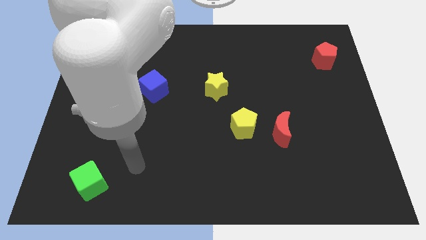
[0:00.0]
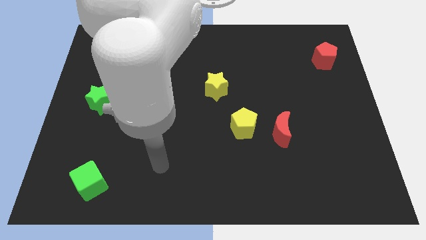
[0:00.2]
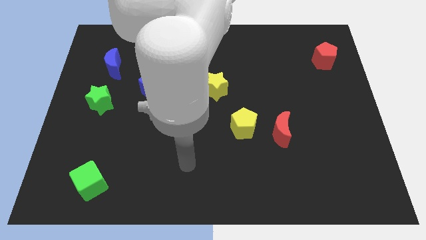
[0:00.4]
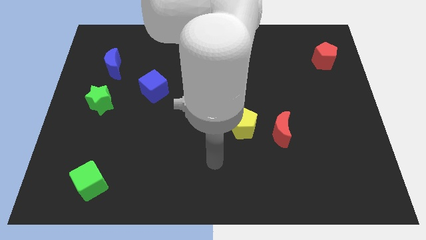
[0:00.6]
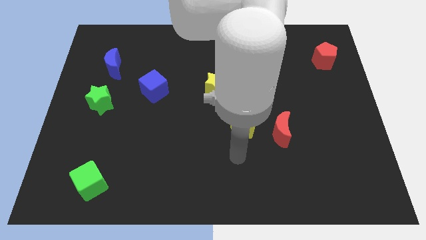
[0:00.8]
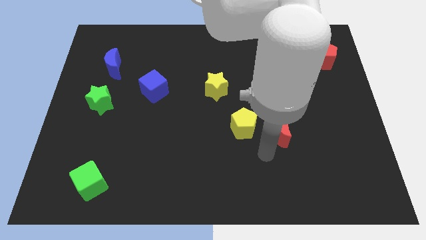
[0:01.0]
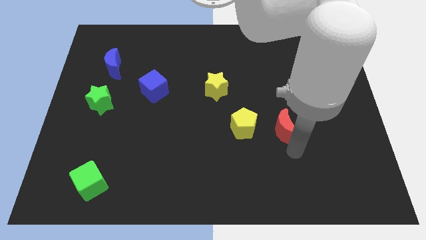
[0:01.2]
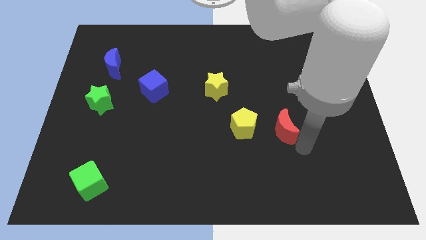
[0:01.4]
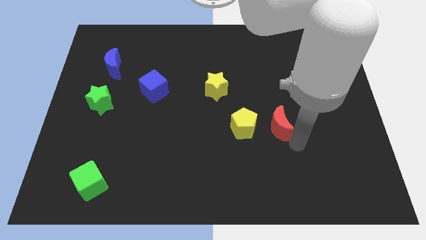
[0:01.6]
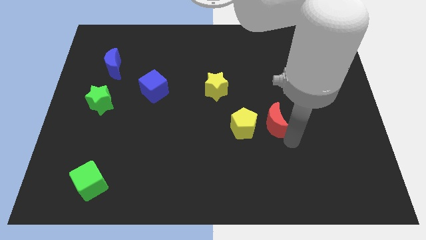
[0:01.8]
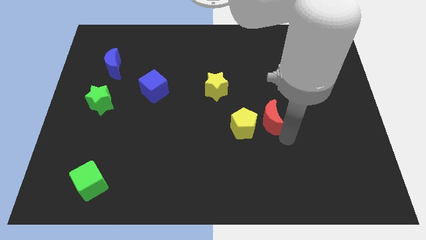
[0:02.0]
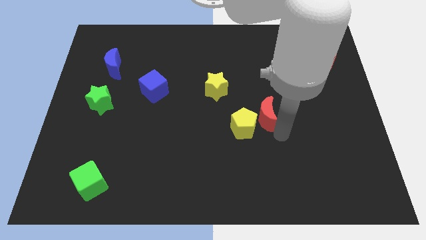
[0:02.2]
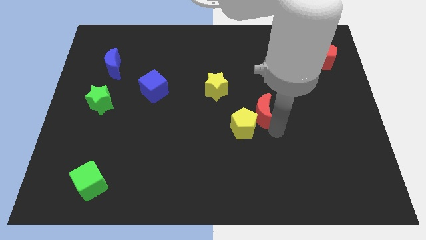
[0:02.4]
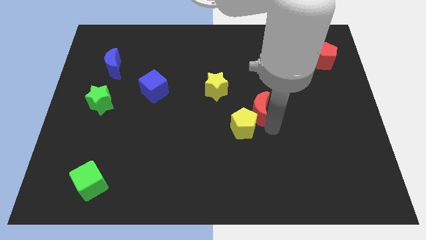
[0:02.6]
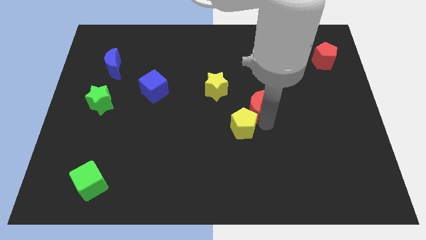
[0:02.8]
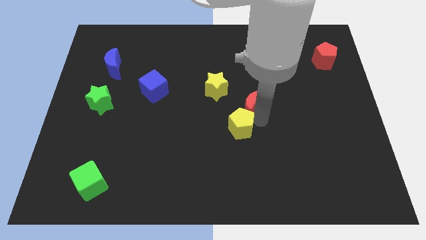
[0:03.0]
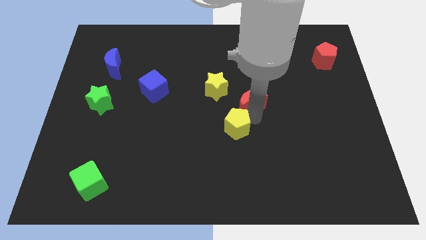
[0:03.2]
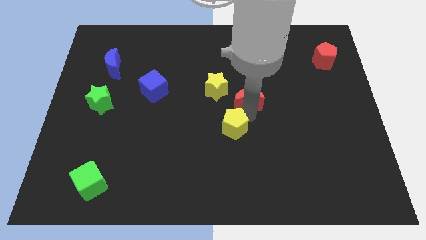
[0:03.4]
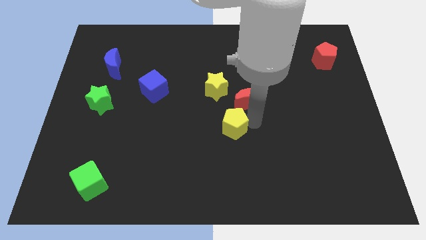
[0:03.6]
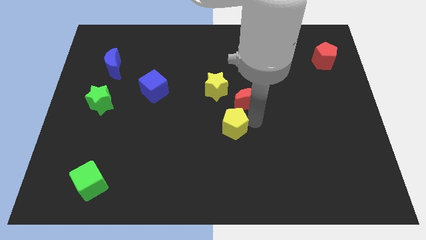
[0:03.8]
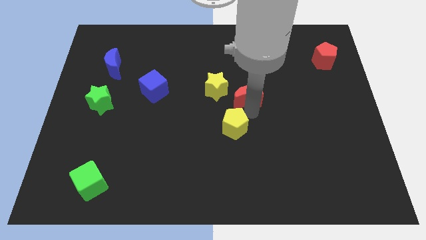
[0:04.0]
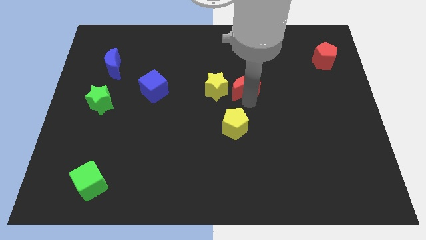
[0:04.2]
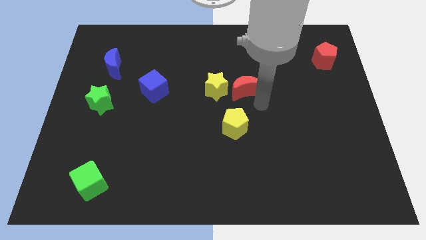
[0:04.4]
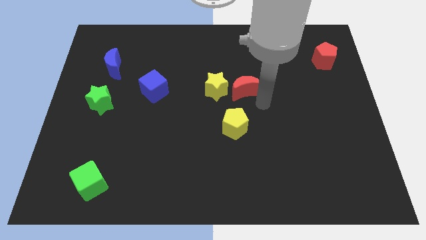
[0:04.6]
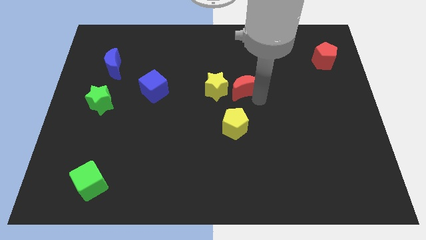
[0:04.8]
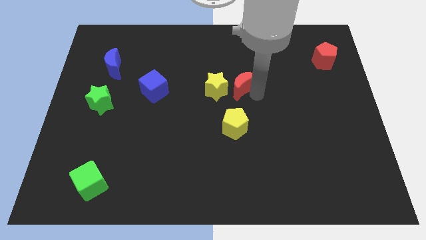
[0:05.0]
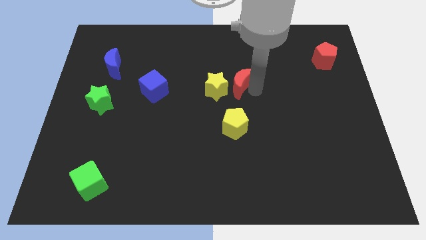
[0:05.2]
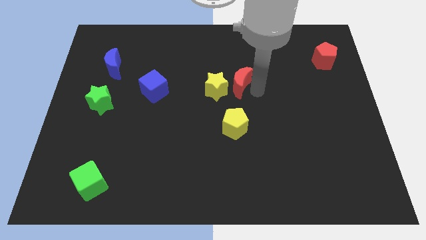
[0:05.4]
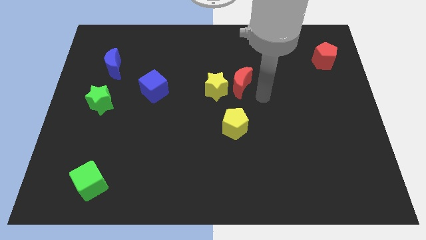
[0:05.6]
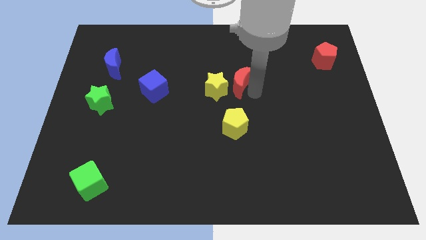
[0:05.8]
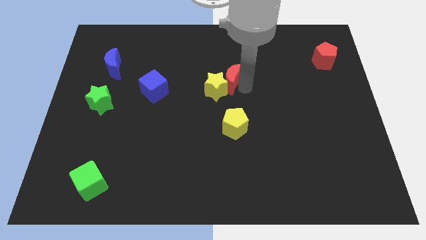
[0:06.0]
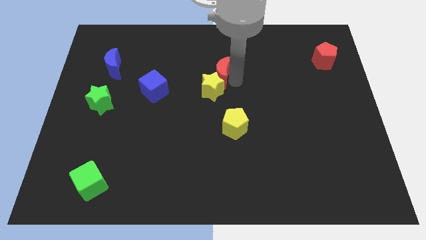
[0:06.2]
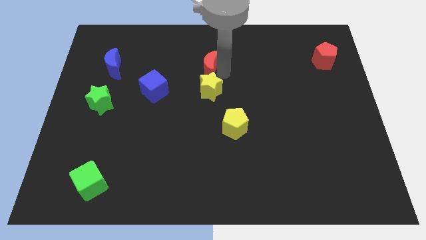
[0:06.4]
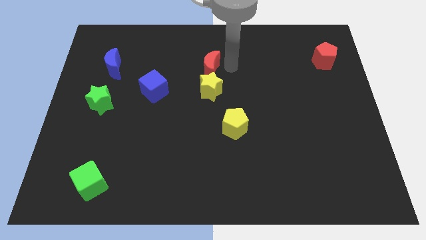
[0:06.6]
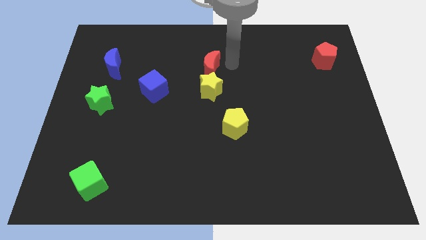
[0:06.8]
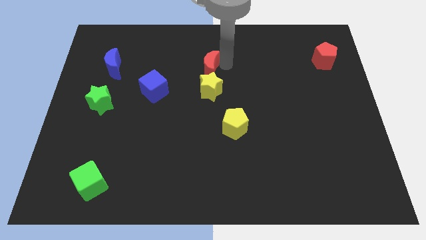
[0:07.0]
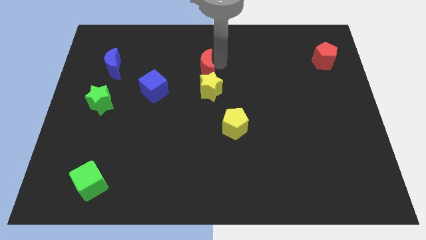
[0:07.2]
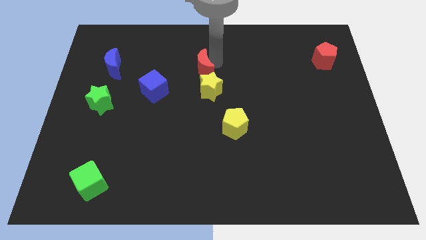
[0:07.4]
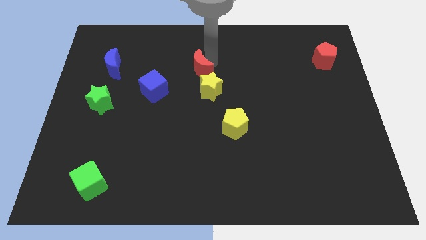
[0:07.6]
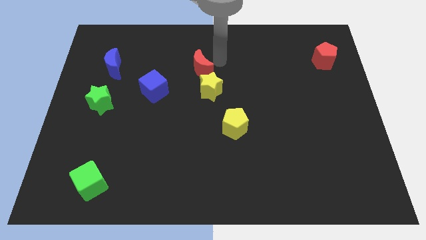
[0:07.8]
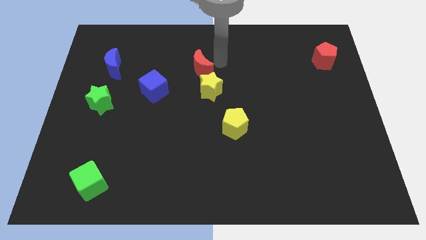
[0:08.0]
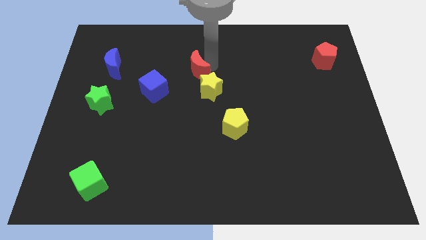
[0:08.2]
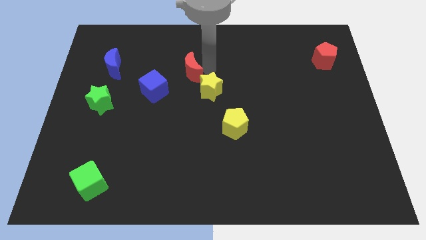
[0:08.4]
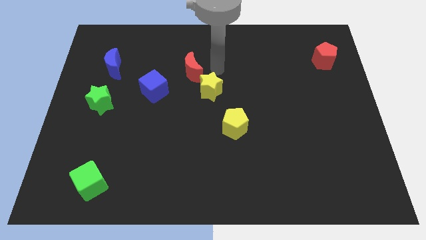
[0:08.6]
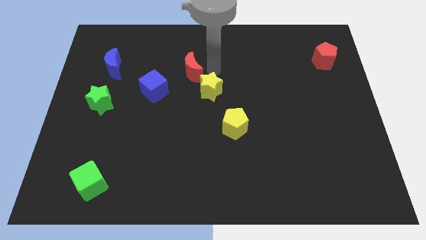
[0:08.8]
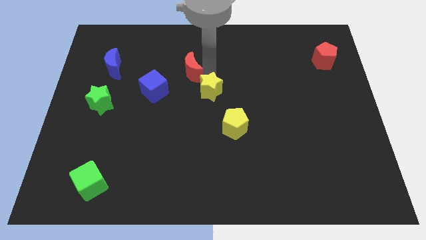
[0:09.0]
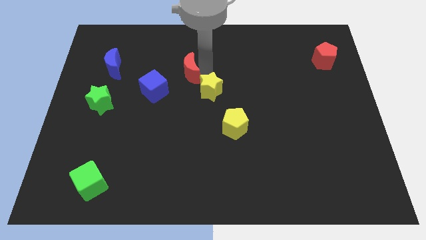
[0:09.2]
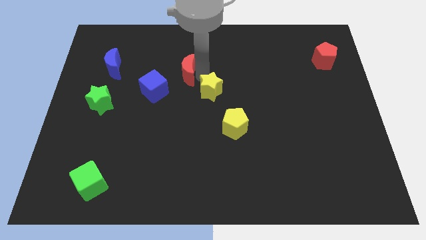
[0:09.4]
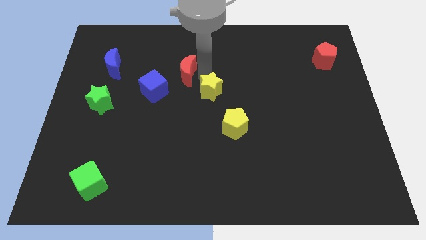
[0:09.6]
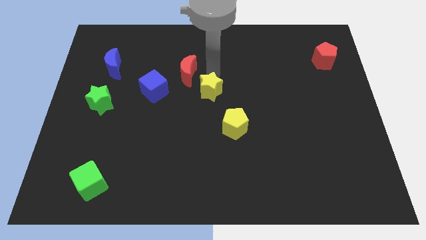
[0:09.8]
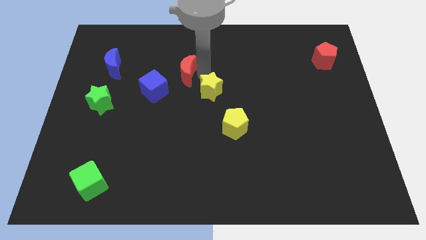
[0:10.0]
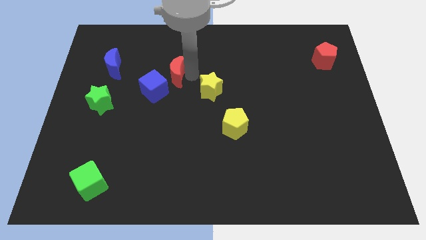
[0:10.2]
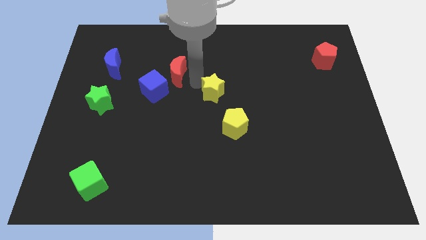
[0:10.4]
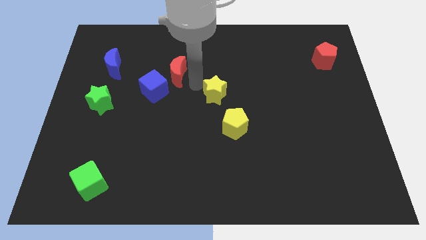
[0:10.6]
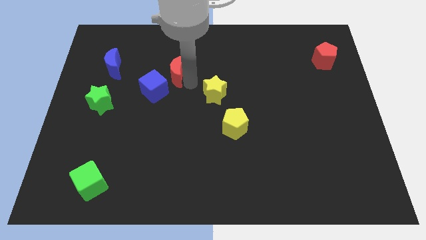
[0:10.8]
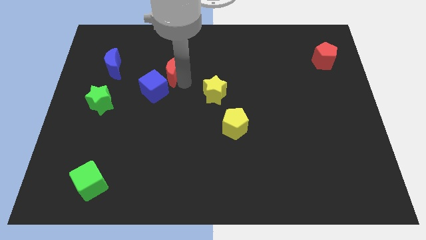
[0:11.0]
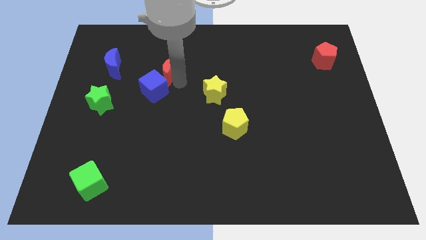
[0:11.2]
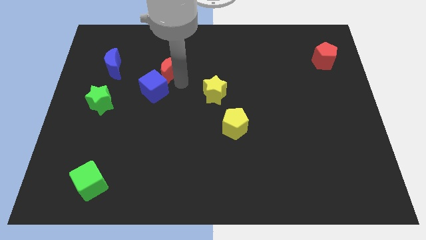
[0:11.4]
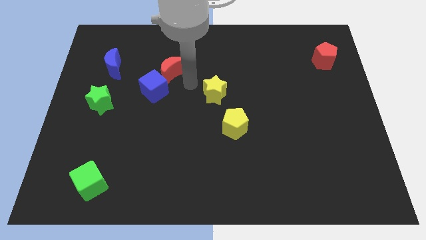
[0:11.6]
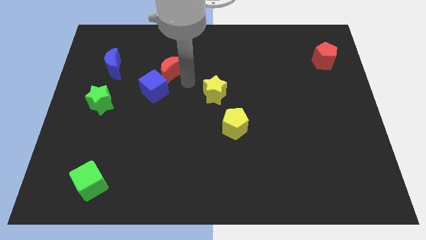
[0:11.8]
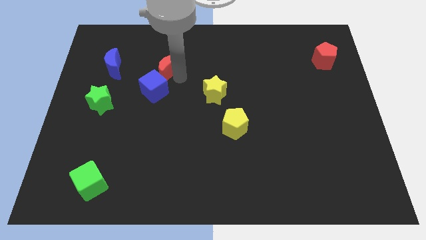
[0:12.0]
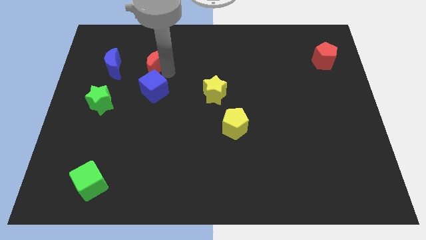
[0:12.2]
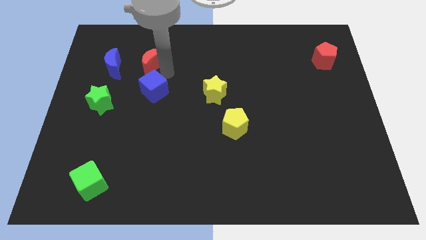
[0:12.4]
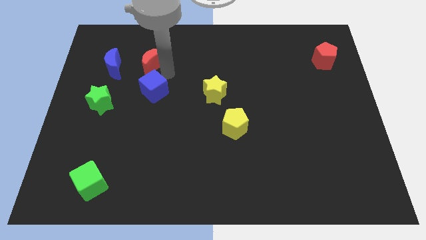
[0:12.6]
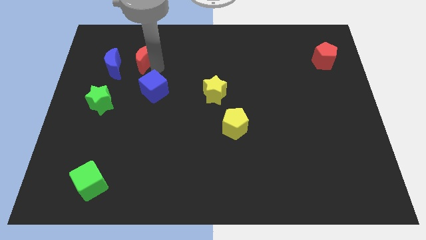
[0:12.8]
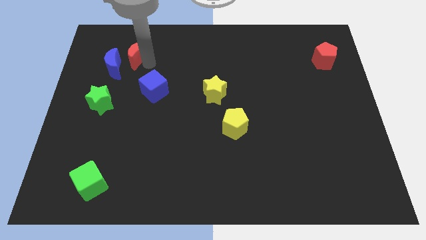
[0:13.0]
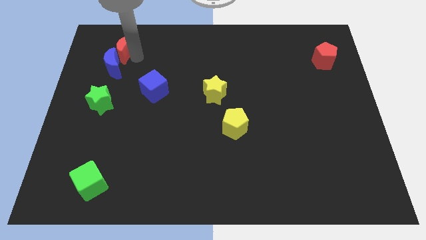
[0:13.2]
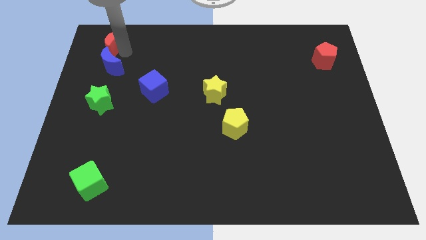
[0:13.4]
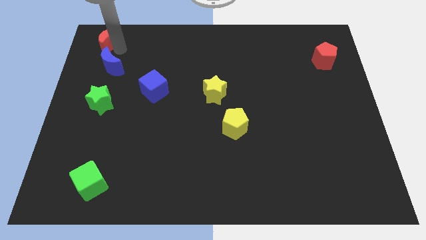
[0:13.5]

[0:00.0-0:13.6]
put the red moon to the upper left corner
